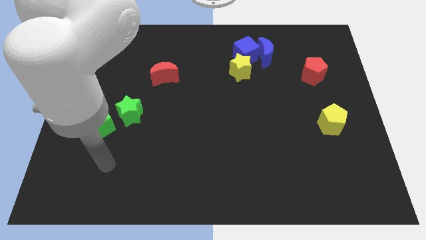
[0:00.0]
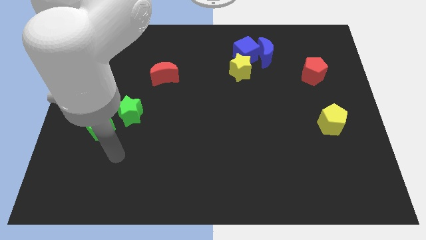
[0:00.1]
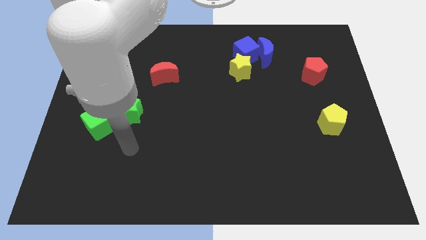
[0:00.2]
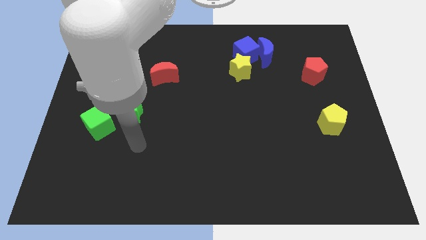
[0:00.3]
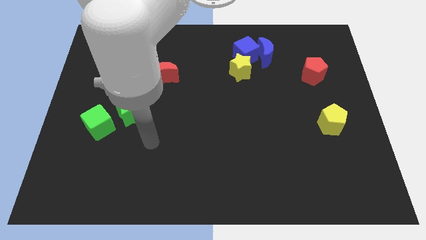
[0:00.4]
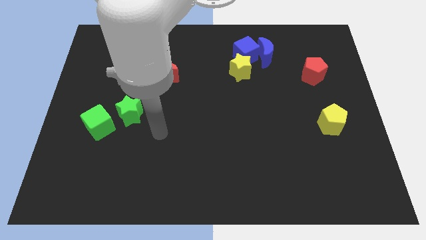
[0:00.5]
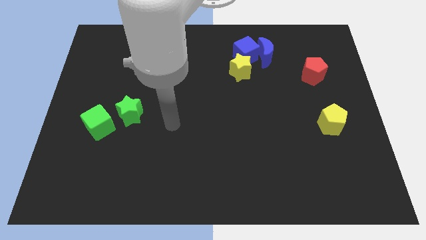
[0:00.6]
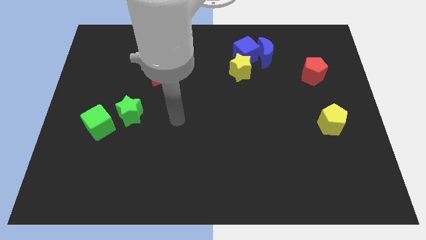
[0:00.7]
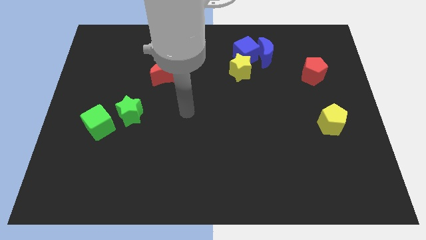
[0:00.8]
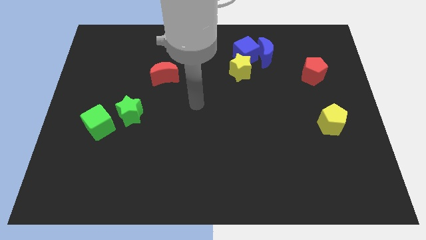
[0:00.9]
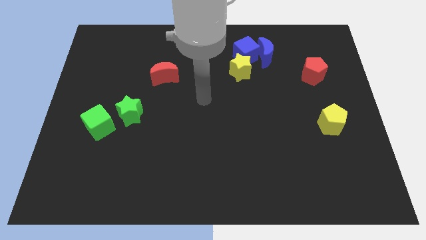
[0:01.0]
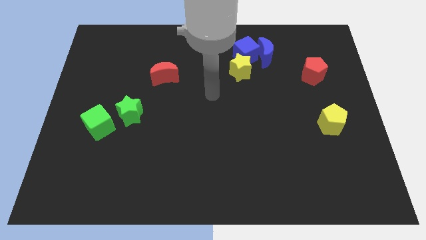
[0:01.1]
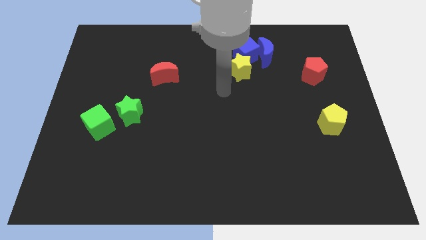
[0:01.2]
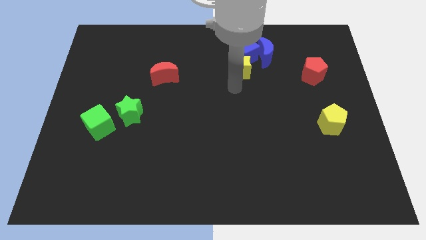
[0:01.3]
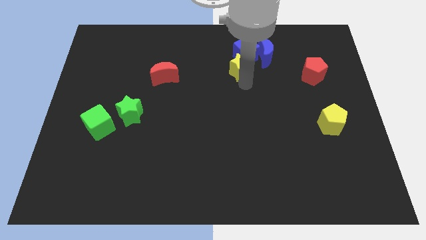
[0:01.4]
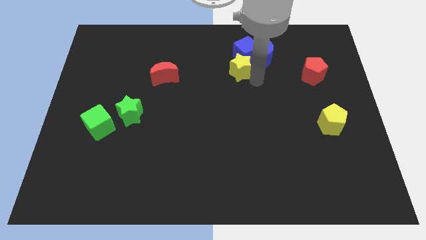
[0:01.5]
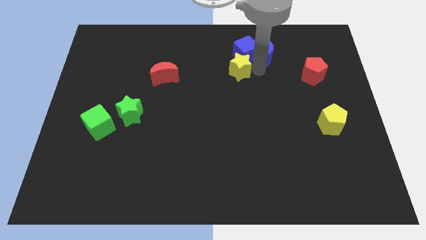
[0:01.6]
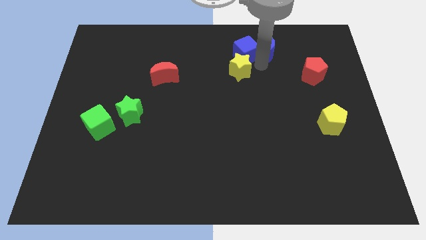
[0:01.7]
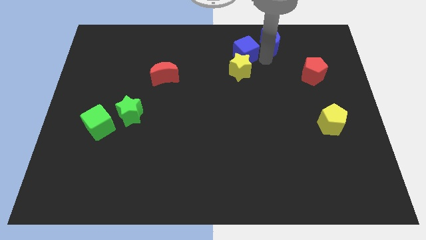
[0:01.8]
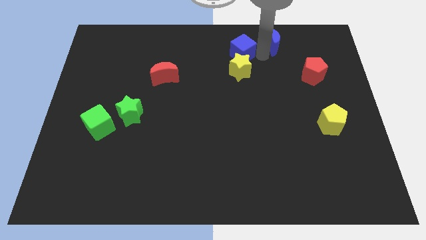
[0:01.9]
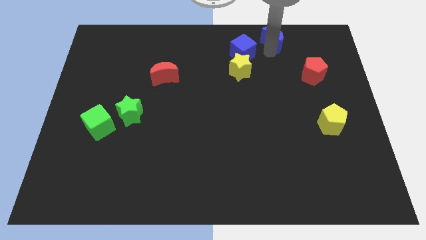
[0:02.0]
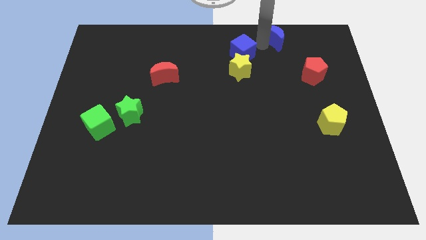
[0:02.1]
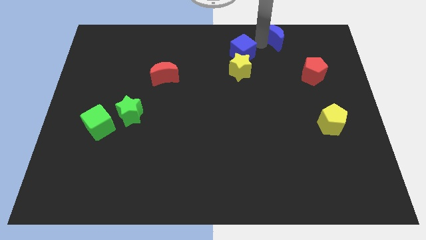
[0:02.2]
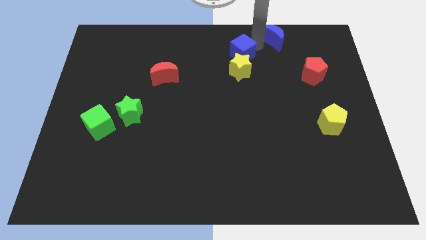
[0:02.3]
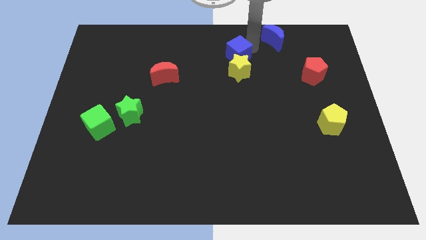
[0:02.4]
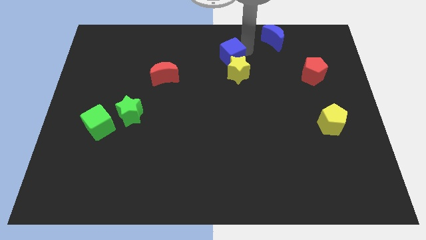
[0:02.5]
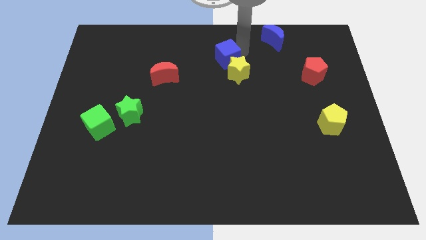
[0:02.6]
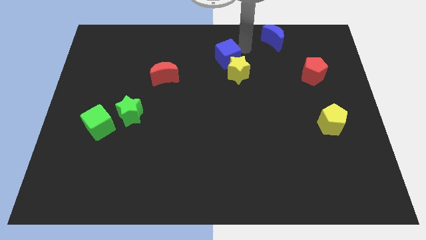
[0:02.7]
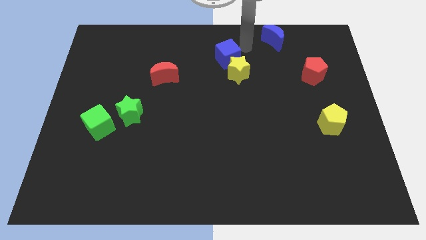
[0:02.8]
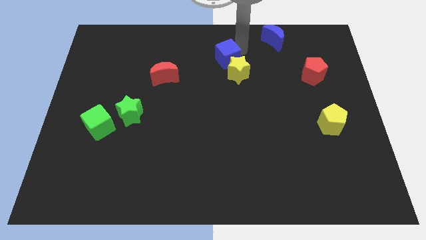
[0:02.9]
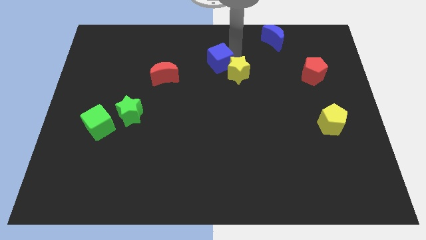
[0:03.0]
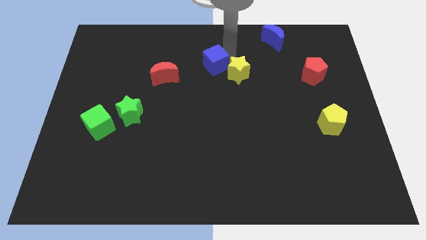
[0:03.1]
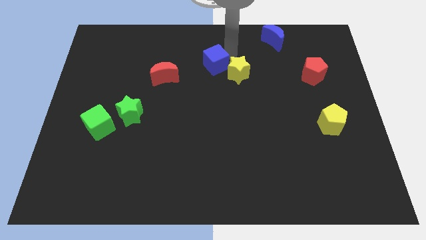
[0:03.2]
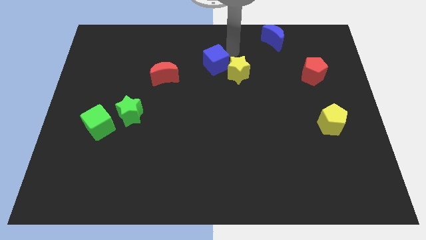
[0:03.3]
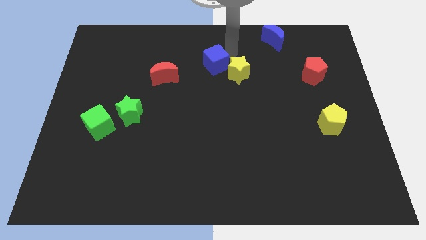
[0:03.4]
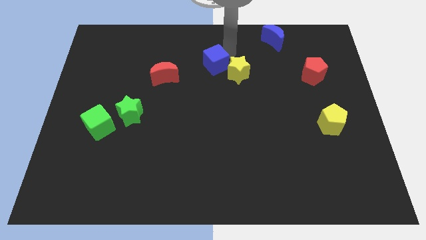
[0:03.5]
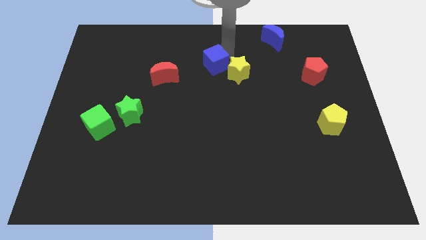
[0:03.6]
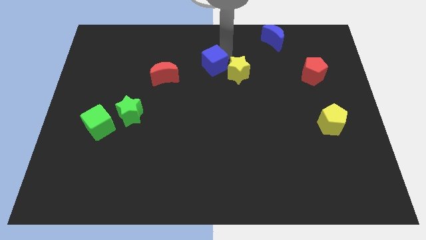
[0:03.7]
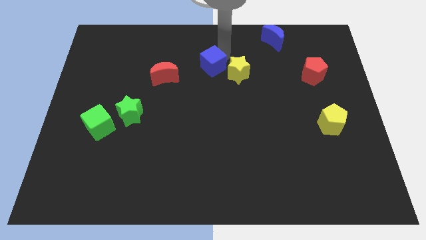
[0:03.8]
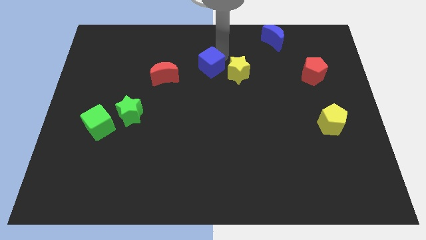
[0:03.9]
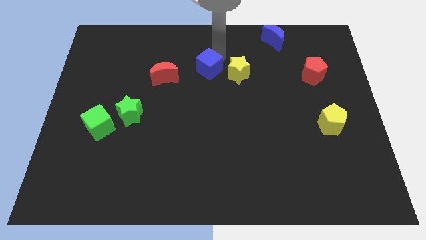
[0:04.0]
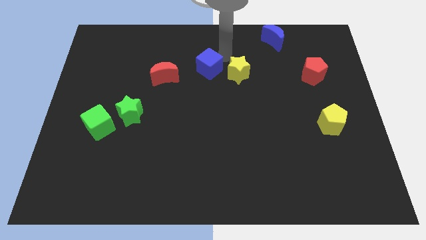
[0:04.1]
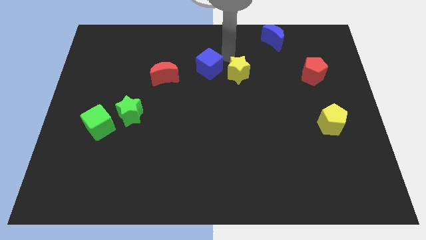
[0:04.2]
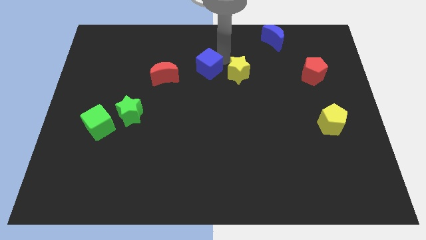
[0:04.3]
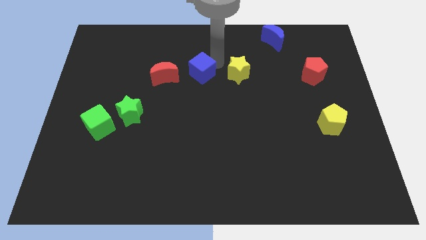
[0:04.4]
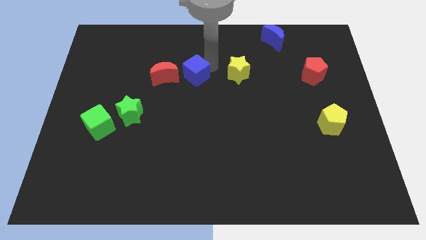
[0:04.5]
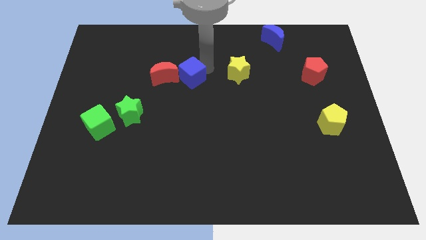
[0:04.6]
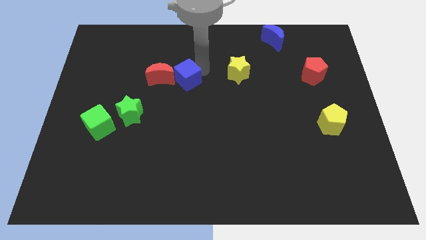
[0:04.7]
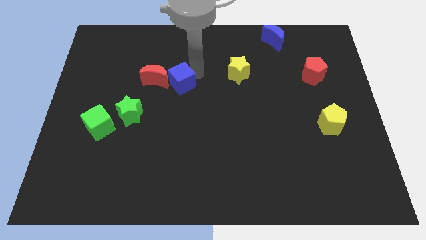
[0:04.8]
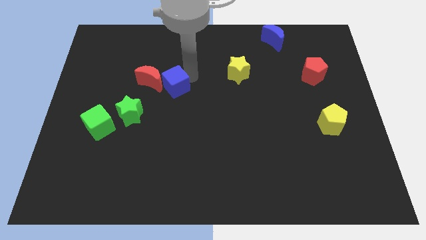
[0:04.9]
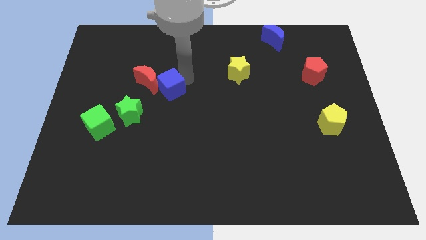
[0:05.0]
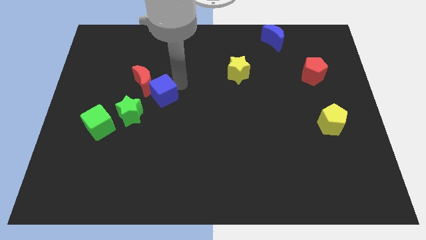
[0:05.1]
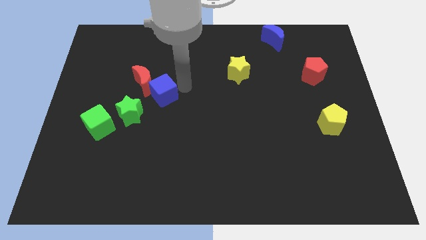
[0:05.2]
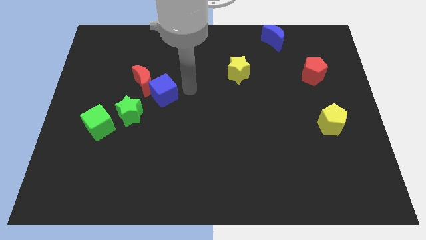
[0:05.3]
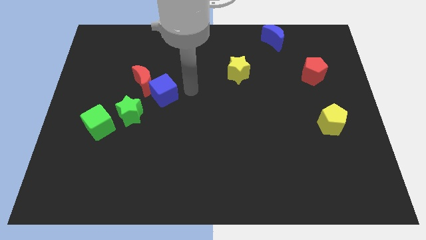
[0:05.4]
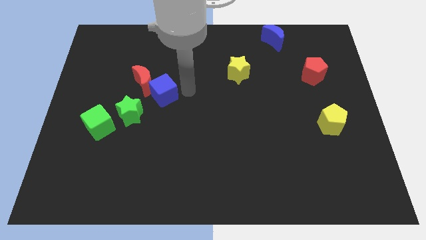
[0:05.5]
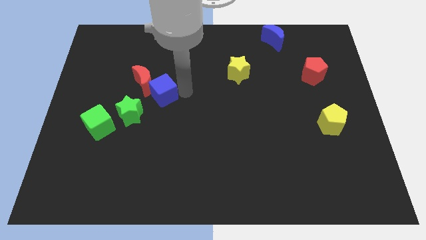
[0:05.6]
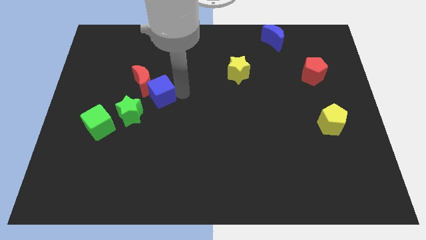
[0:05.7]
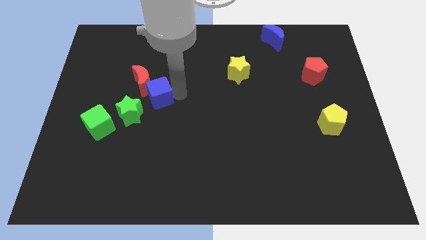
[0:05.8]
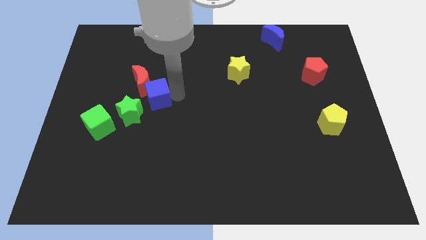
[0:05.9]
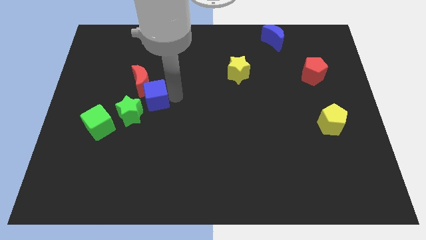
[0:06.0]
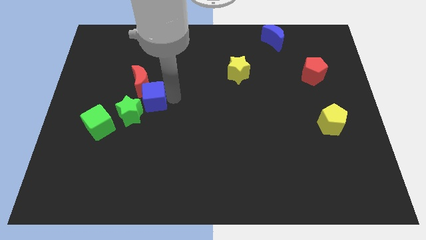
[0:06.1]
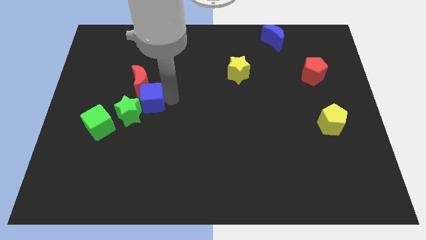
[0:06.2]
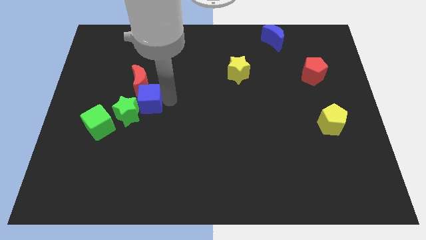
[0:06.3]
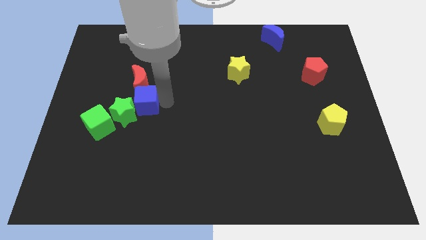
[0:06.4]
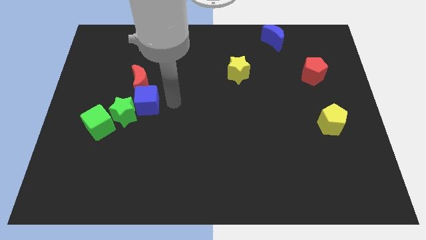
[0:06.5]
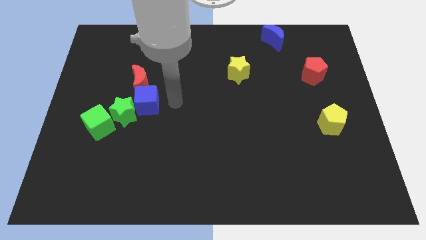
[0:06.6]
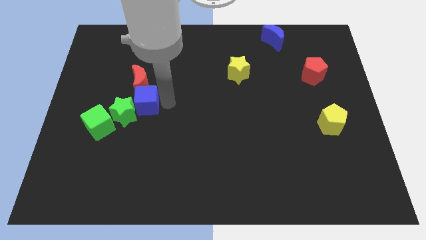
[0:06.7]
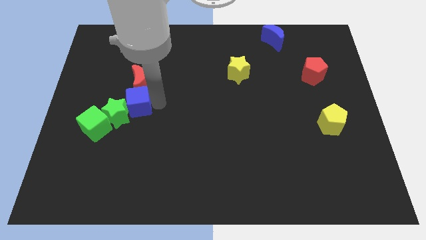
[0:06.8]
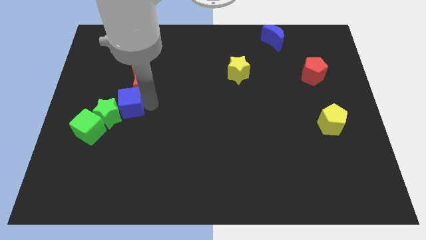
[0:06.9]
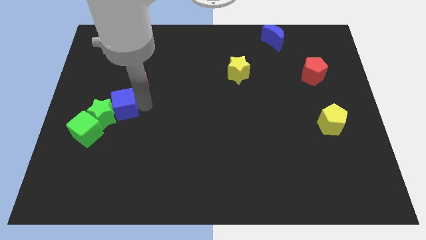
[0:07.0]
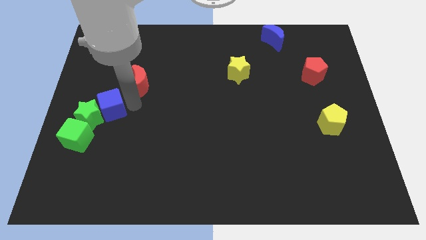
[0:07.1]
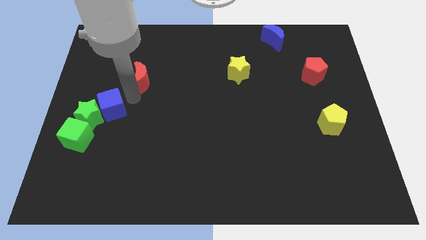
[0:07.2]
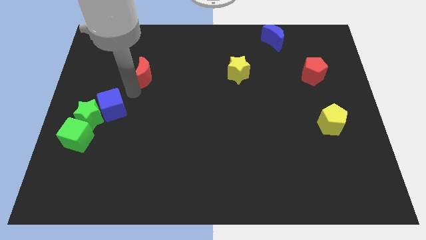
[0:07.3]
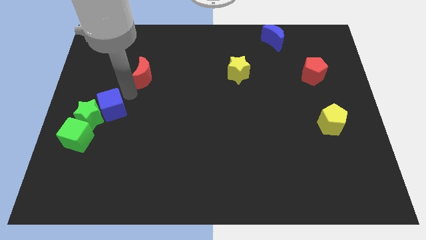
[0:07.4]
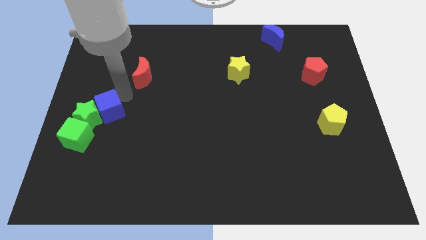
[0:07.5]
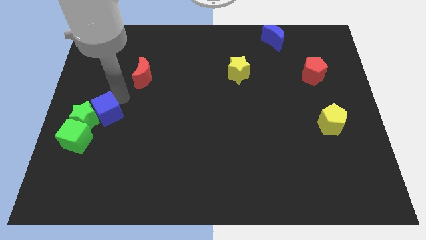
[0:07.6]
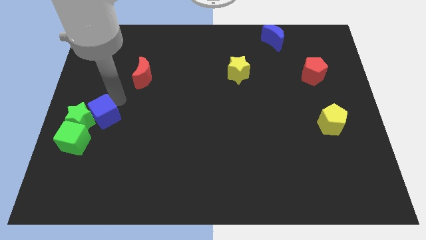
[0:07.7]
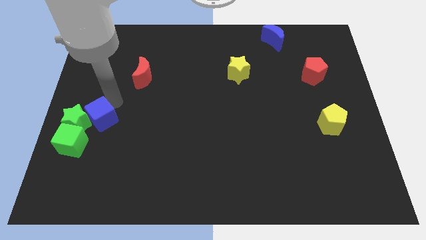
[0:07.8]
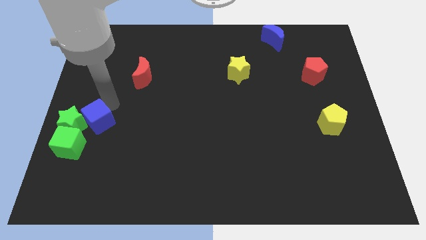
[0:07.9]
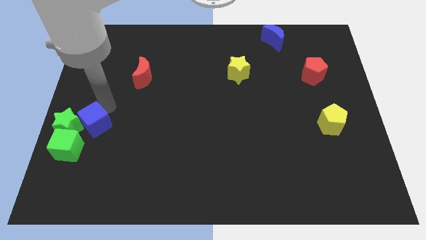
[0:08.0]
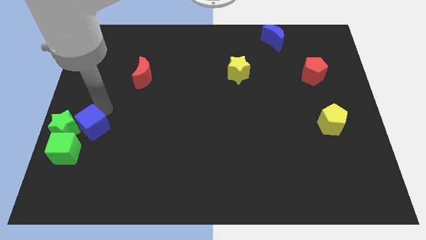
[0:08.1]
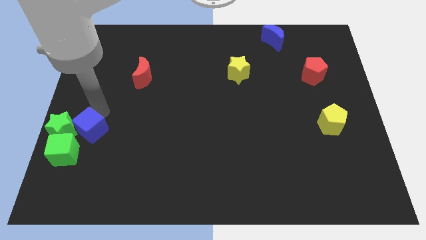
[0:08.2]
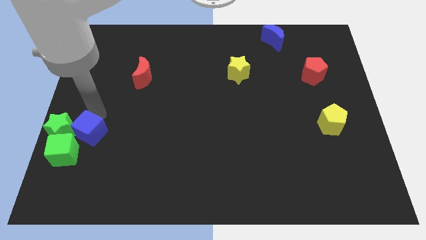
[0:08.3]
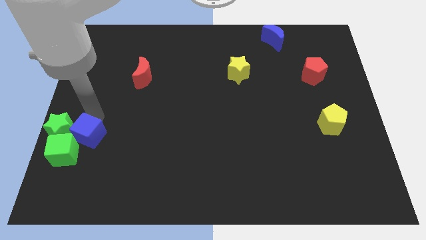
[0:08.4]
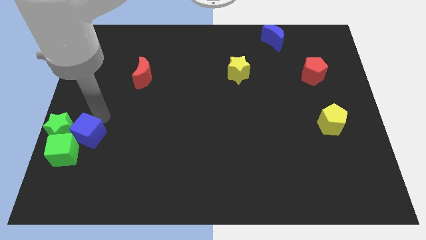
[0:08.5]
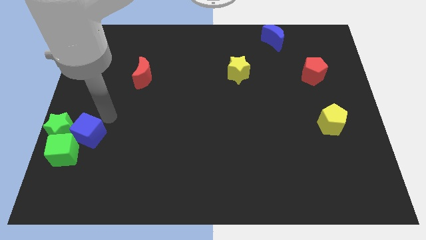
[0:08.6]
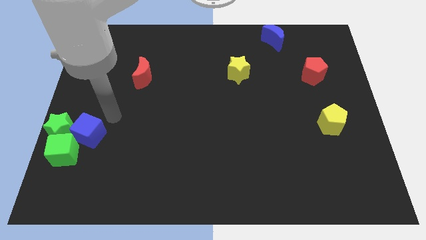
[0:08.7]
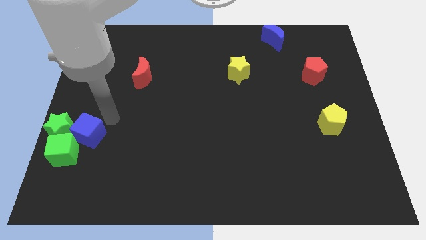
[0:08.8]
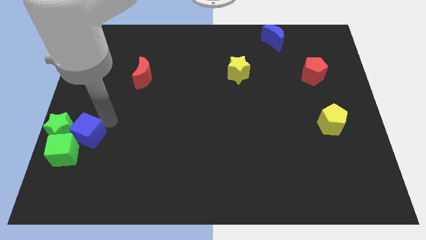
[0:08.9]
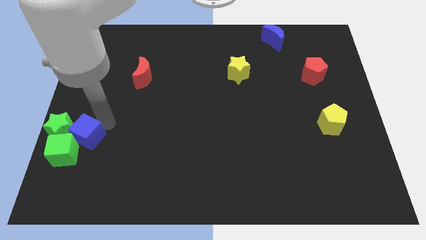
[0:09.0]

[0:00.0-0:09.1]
push the blue cube to the green cube
